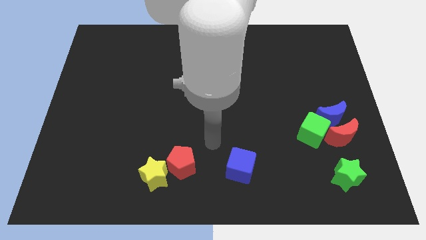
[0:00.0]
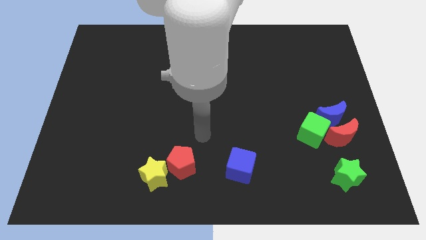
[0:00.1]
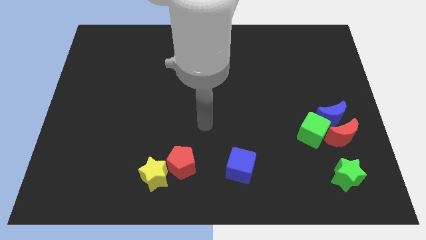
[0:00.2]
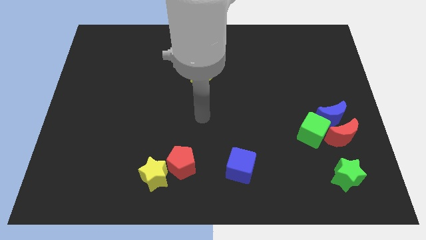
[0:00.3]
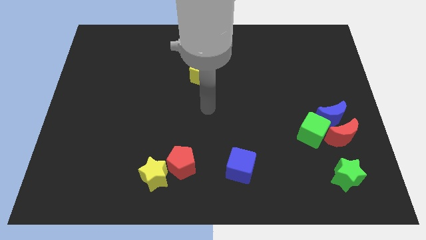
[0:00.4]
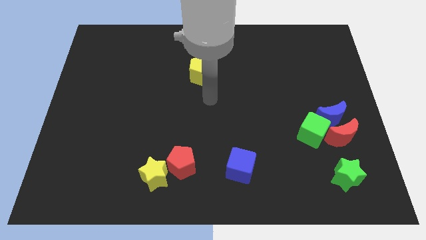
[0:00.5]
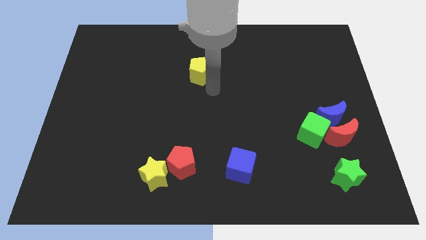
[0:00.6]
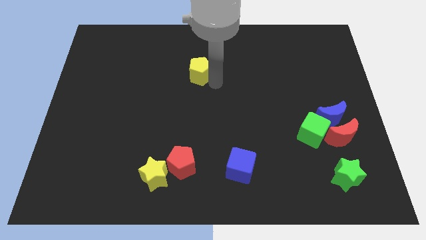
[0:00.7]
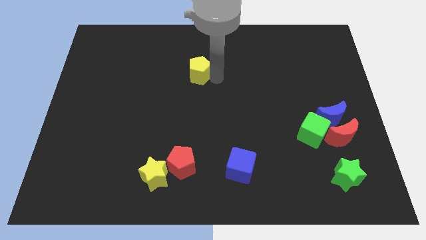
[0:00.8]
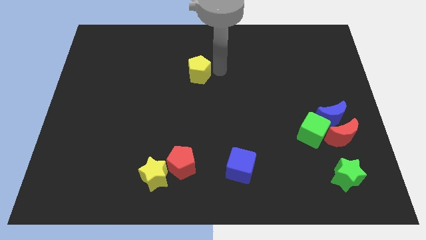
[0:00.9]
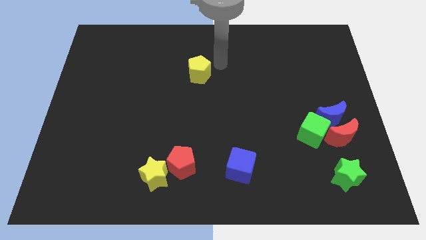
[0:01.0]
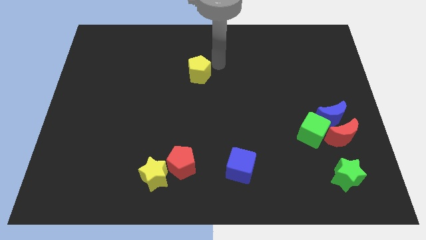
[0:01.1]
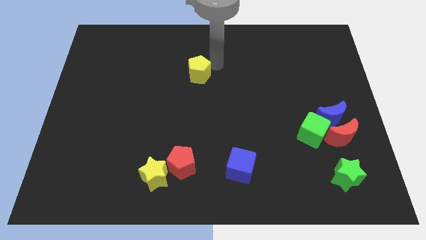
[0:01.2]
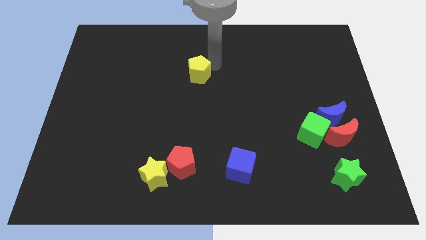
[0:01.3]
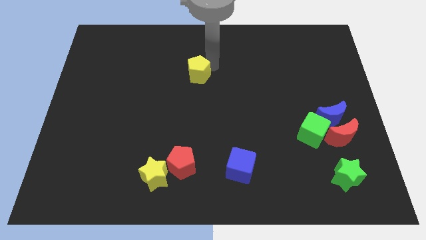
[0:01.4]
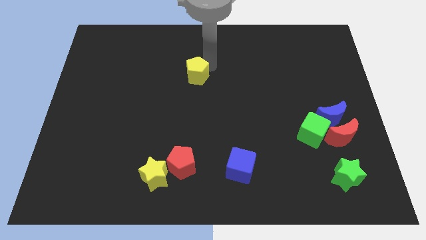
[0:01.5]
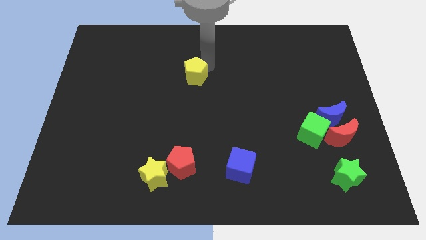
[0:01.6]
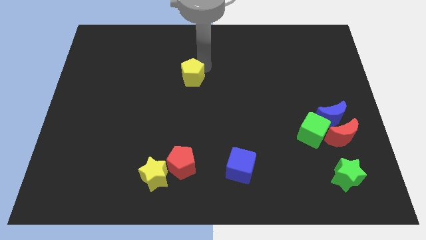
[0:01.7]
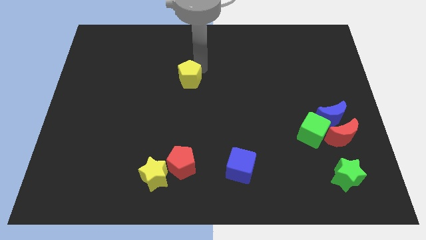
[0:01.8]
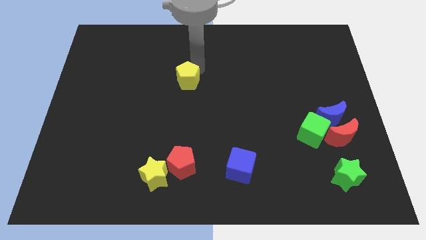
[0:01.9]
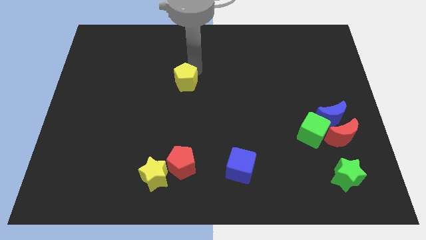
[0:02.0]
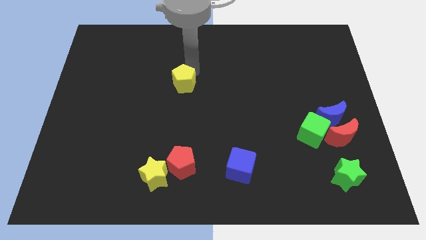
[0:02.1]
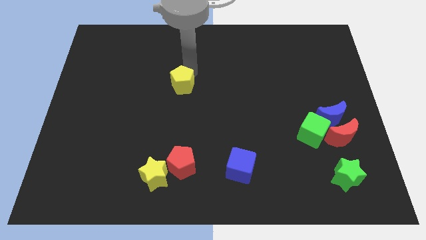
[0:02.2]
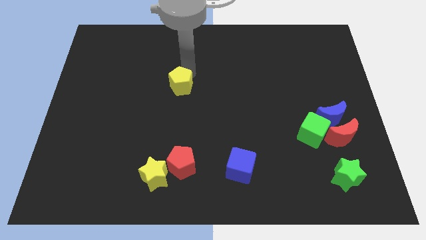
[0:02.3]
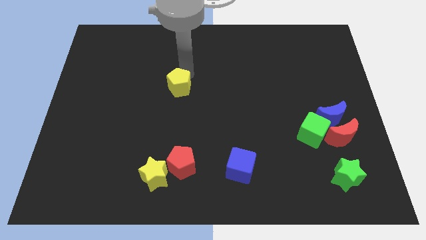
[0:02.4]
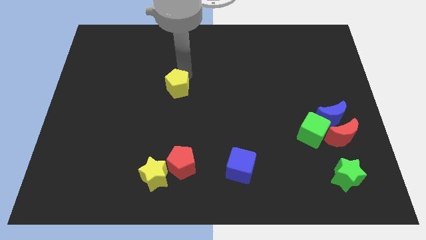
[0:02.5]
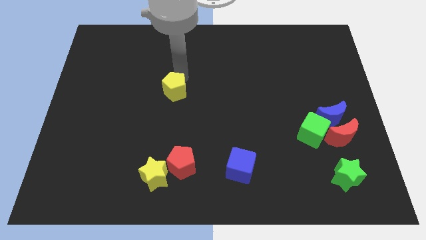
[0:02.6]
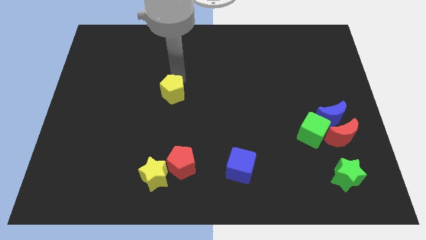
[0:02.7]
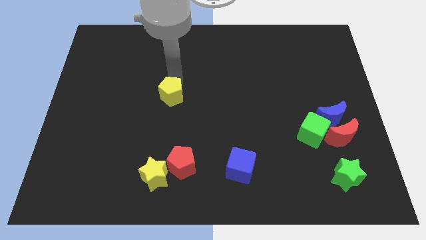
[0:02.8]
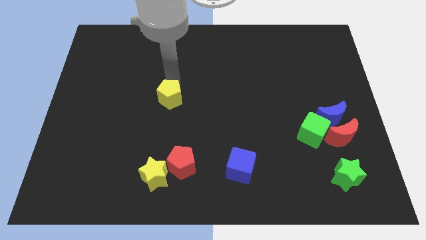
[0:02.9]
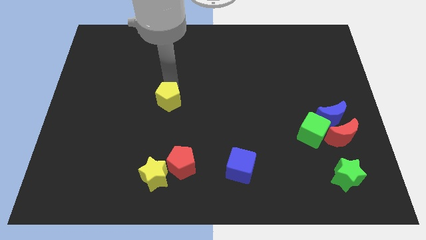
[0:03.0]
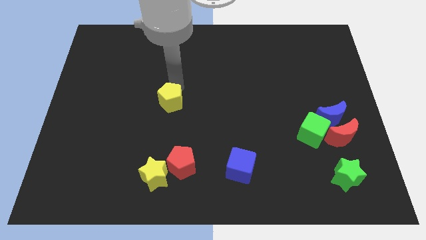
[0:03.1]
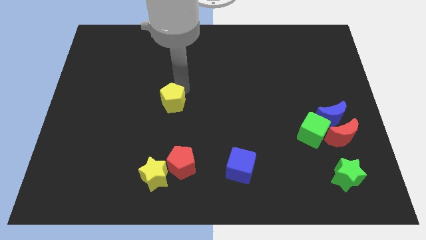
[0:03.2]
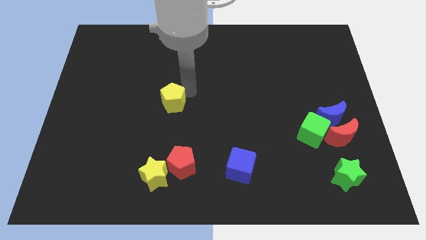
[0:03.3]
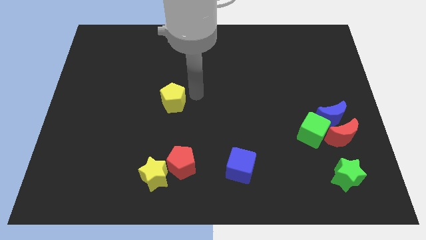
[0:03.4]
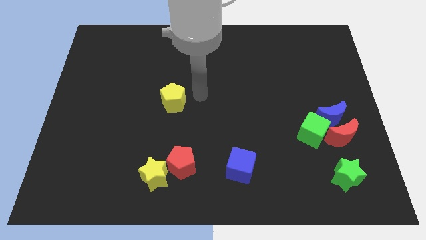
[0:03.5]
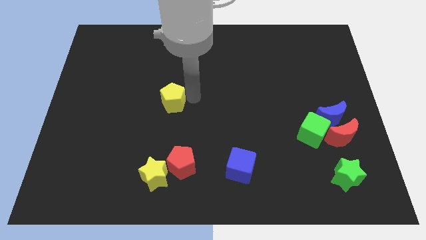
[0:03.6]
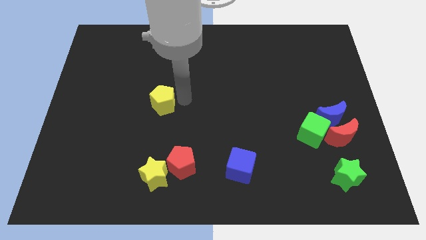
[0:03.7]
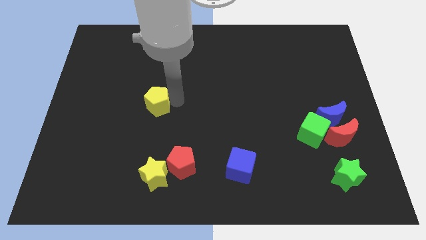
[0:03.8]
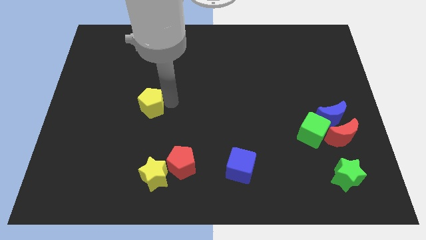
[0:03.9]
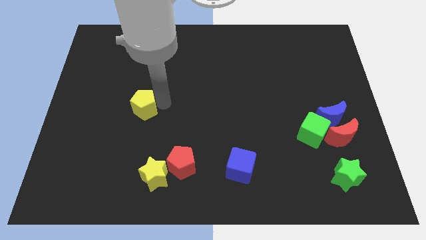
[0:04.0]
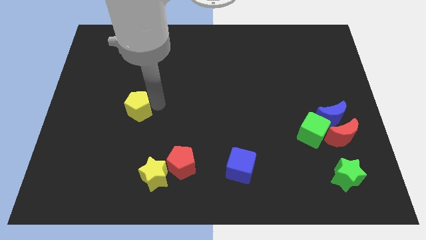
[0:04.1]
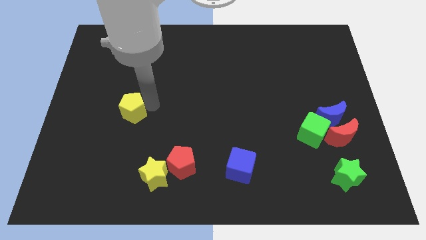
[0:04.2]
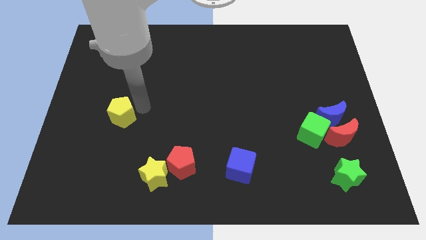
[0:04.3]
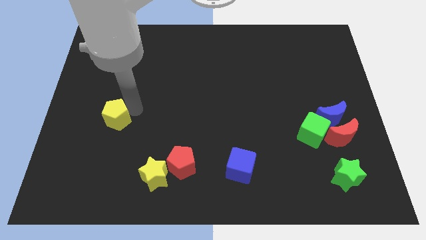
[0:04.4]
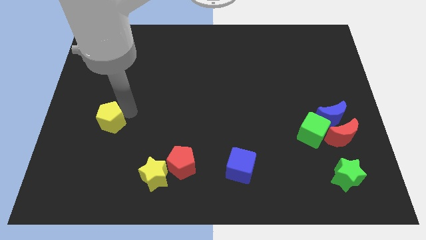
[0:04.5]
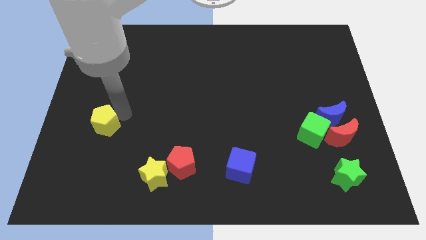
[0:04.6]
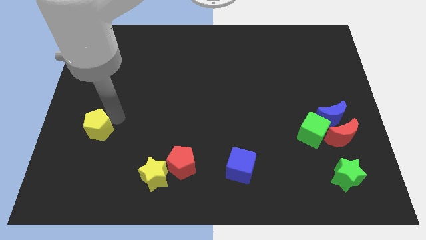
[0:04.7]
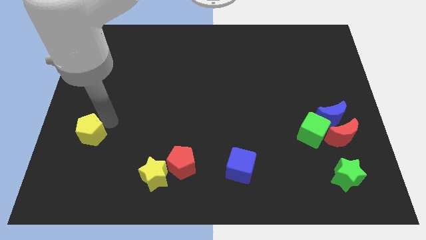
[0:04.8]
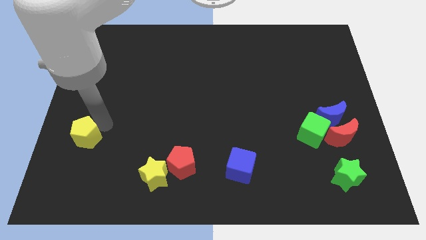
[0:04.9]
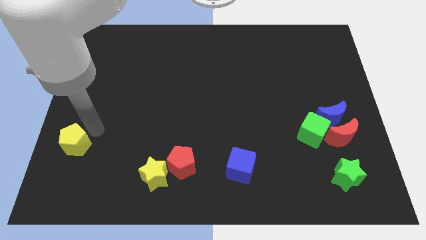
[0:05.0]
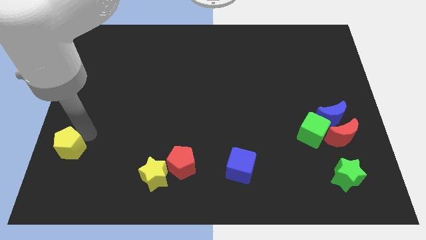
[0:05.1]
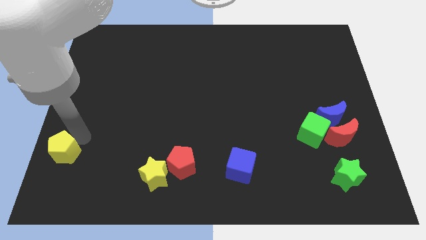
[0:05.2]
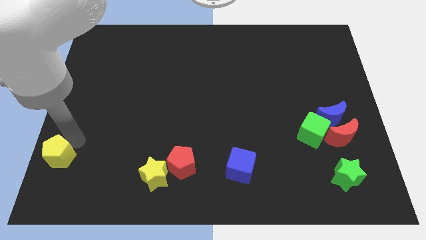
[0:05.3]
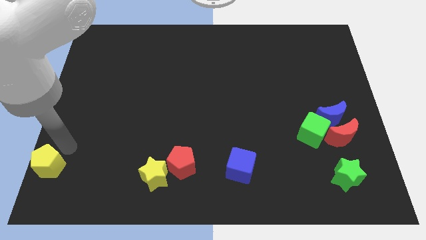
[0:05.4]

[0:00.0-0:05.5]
slide the yellow pentagon to the lower left corner

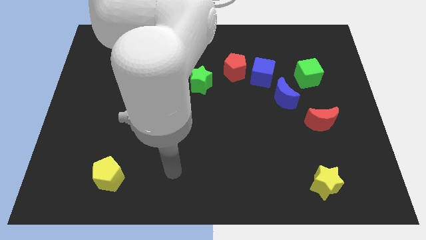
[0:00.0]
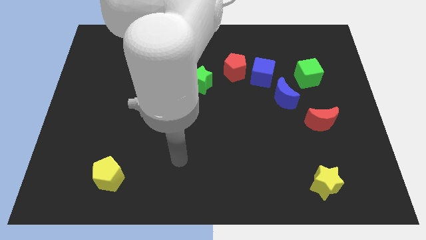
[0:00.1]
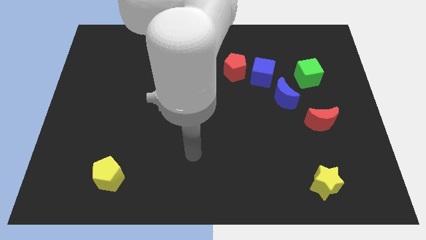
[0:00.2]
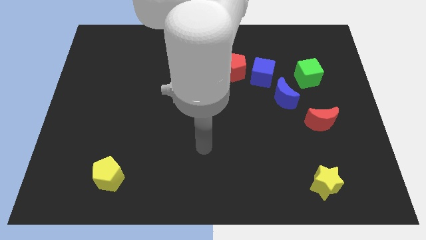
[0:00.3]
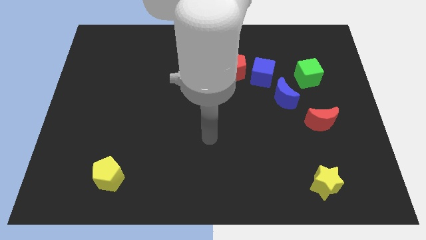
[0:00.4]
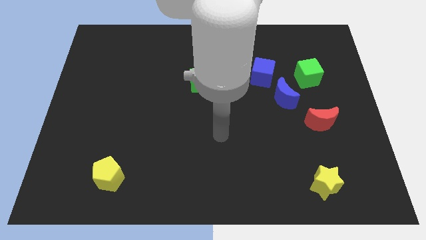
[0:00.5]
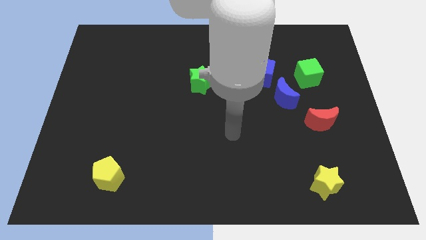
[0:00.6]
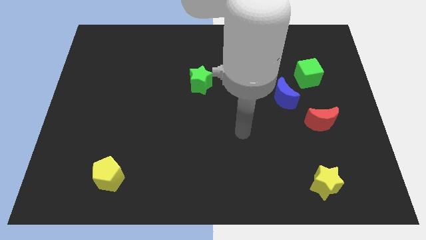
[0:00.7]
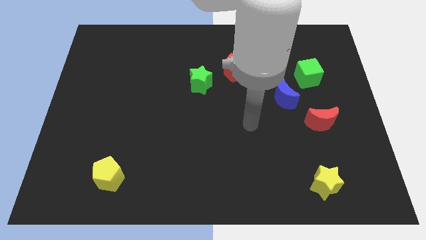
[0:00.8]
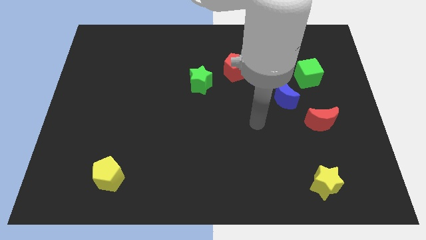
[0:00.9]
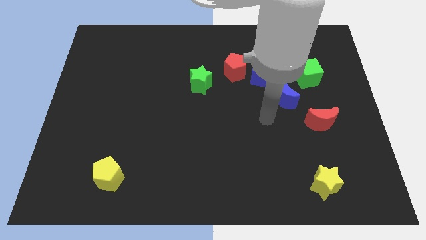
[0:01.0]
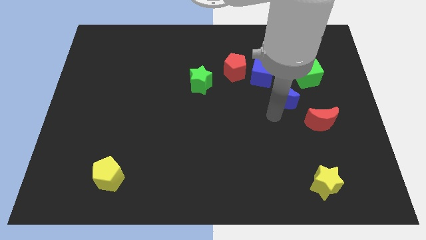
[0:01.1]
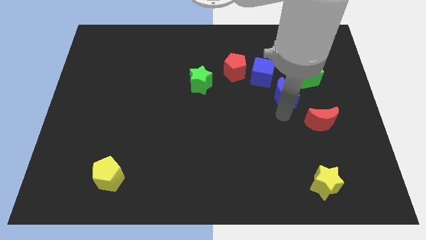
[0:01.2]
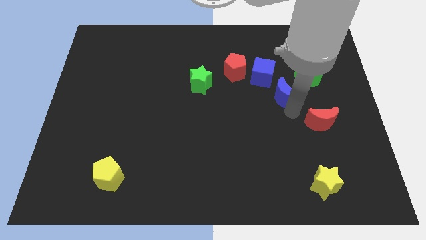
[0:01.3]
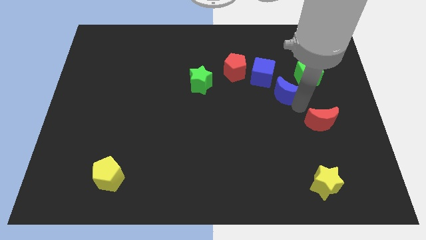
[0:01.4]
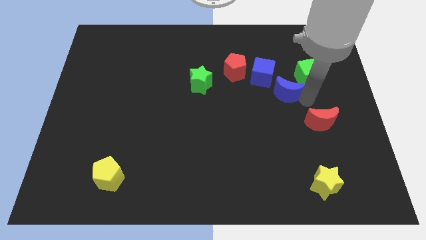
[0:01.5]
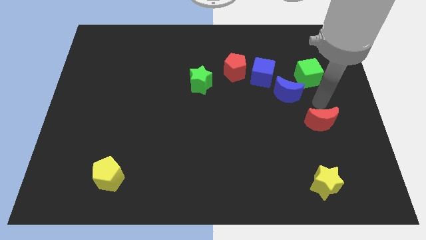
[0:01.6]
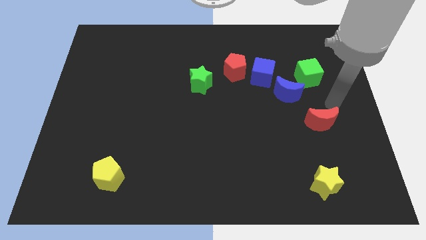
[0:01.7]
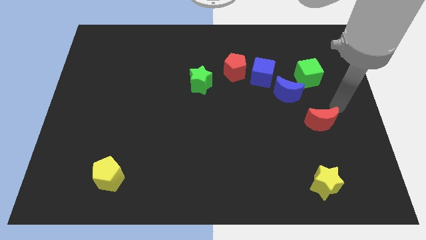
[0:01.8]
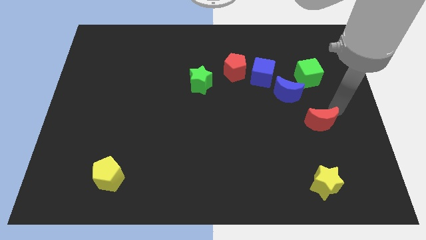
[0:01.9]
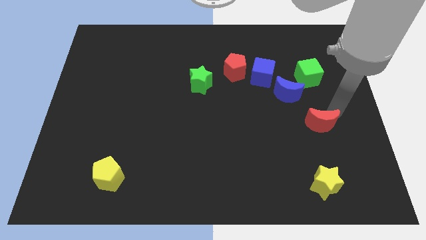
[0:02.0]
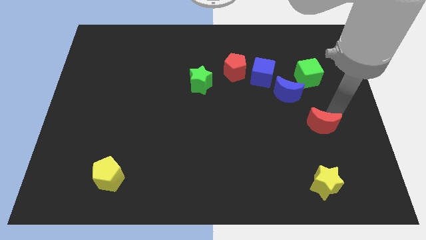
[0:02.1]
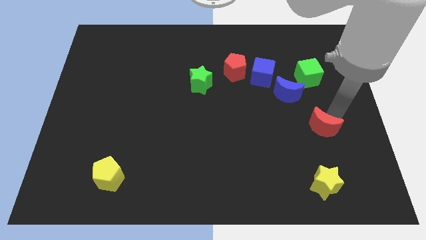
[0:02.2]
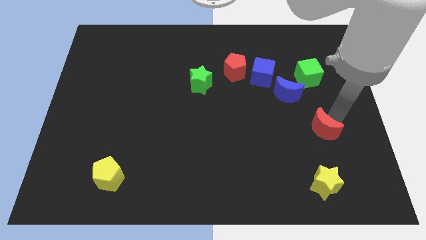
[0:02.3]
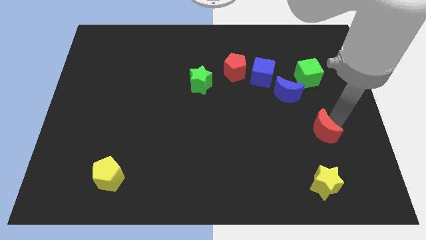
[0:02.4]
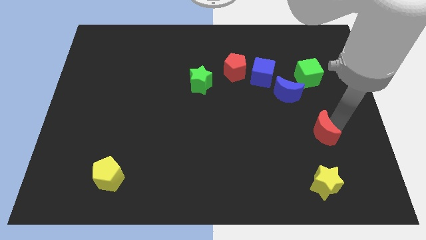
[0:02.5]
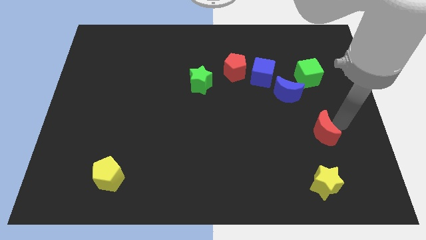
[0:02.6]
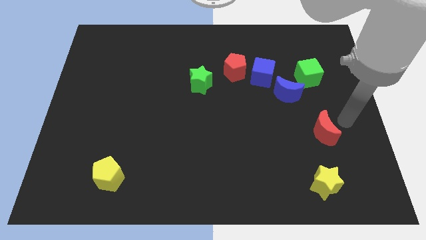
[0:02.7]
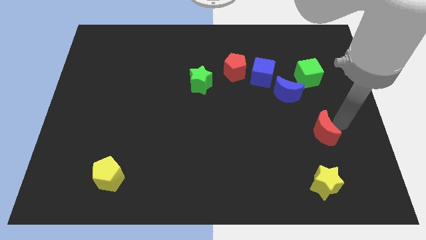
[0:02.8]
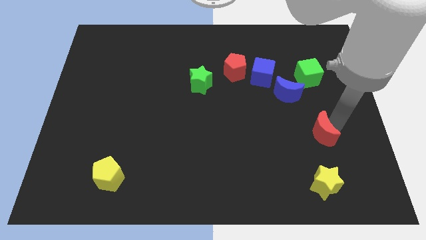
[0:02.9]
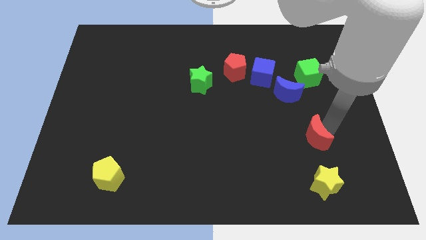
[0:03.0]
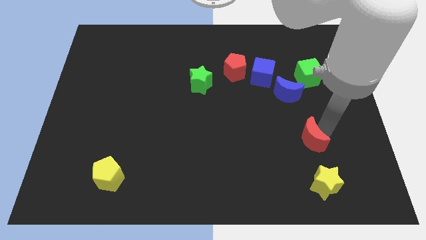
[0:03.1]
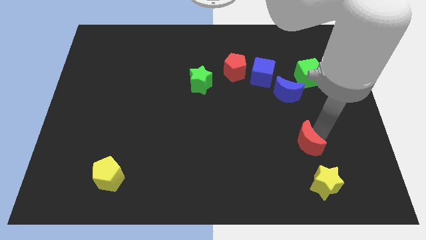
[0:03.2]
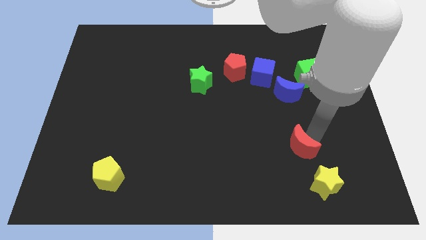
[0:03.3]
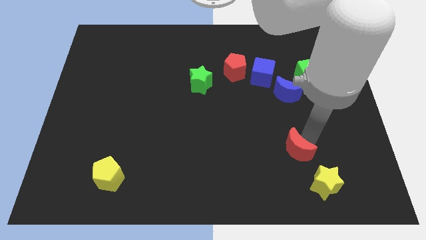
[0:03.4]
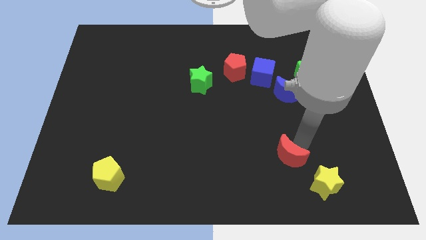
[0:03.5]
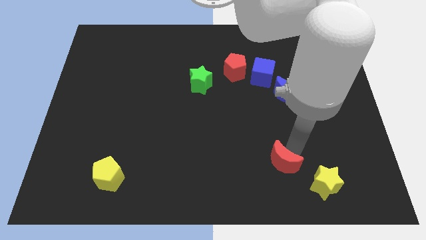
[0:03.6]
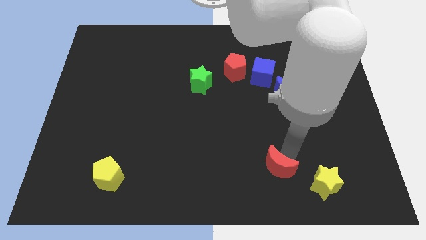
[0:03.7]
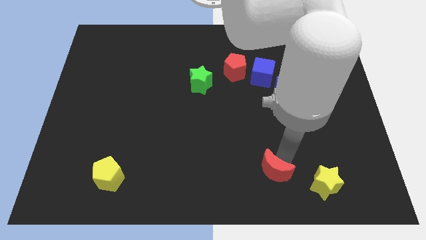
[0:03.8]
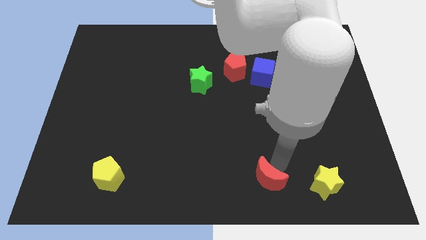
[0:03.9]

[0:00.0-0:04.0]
put the red moon to the bottom
